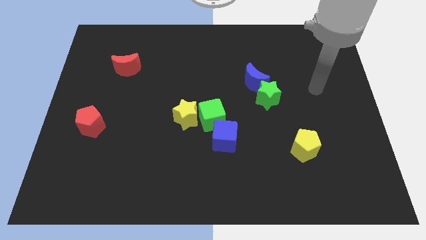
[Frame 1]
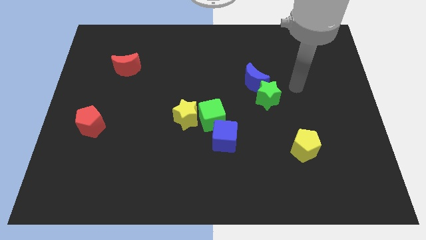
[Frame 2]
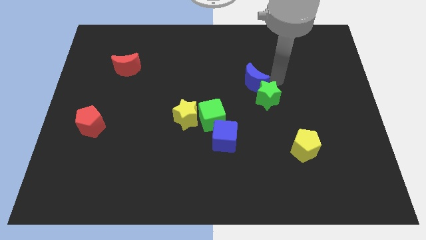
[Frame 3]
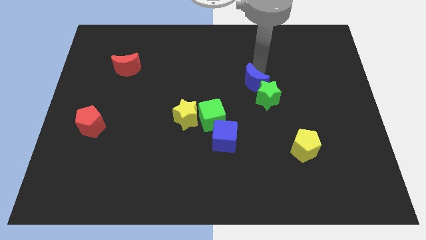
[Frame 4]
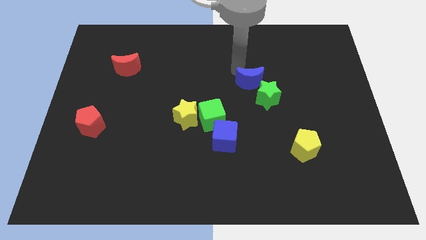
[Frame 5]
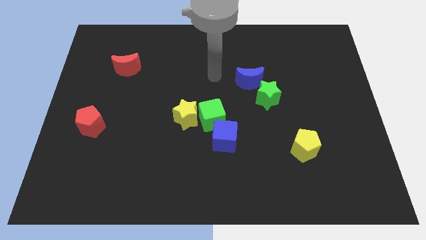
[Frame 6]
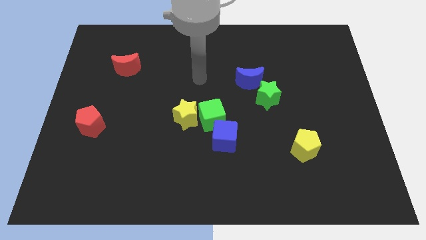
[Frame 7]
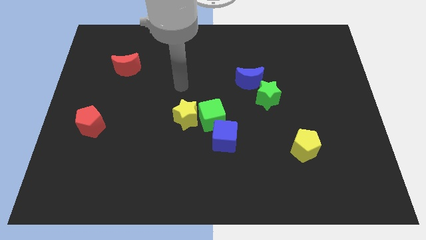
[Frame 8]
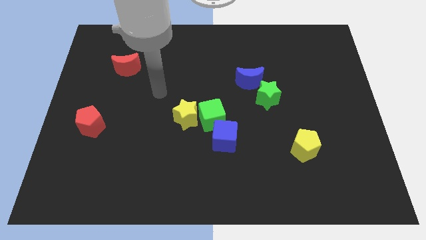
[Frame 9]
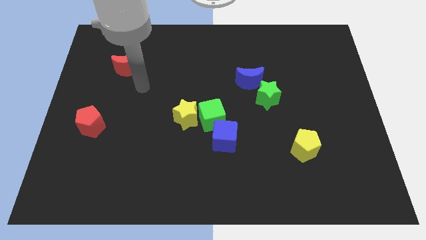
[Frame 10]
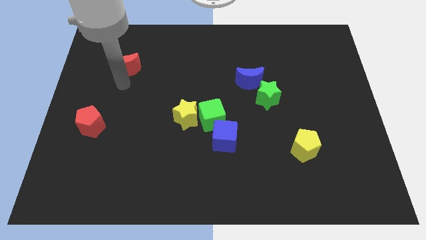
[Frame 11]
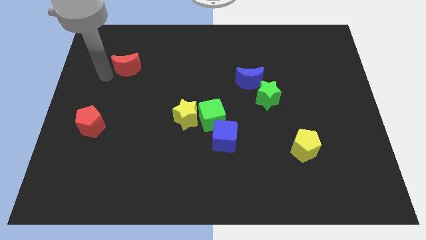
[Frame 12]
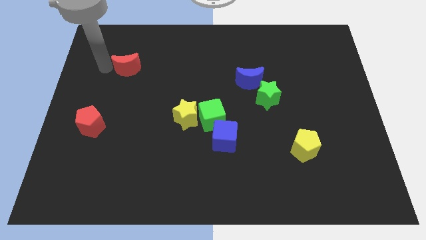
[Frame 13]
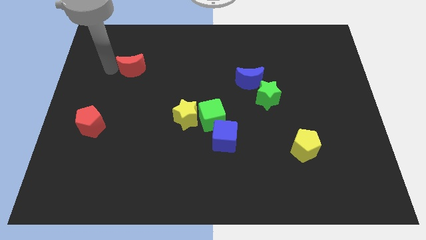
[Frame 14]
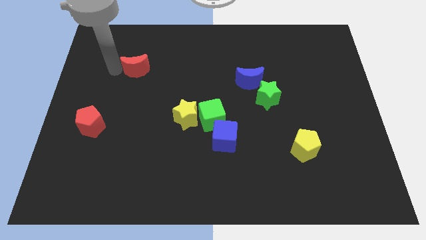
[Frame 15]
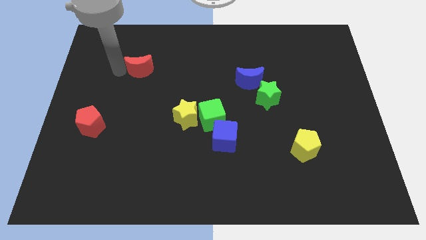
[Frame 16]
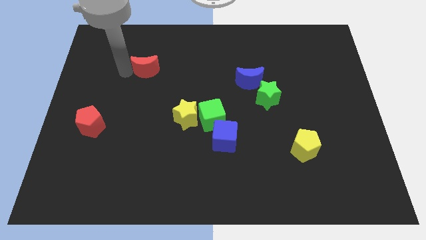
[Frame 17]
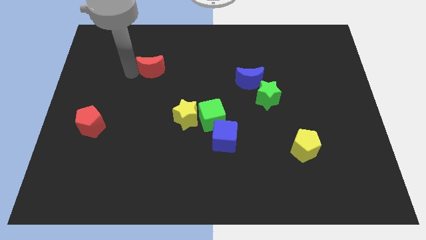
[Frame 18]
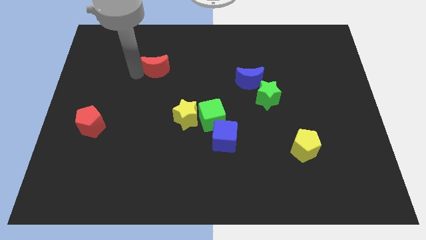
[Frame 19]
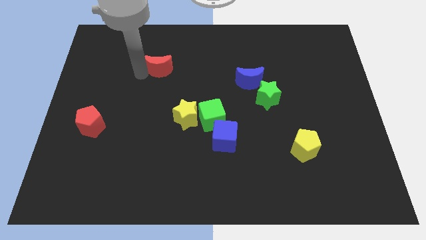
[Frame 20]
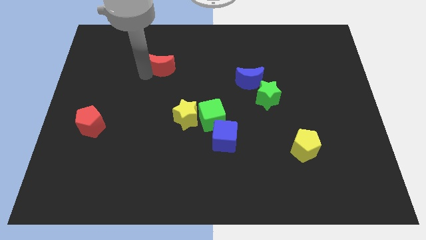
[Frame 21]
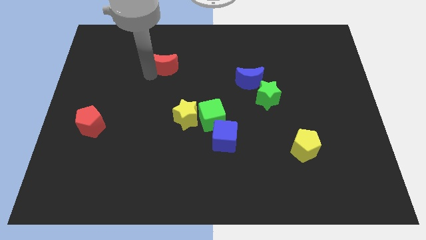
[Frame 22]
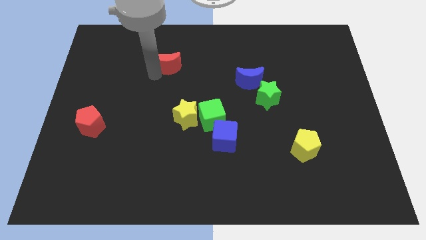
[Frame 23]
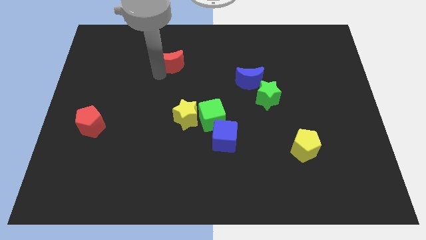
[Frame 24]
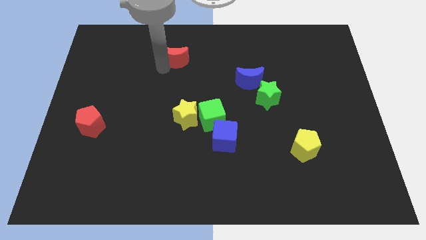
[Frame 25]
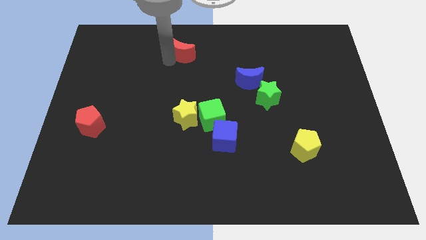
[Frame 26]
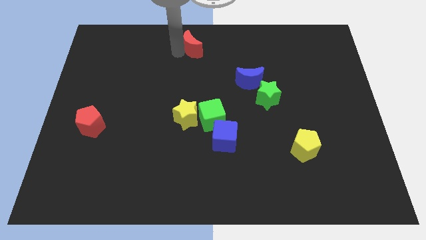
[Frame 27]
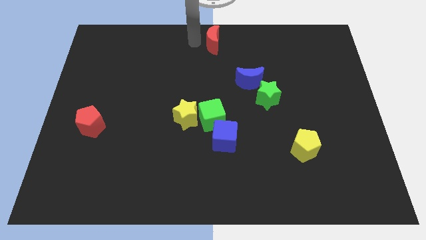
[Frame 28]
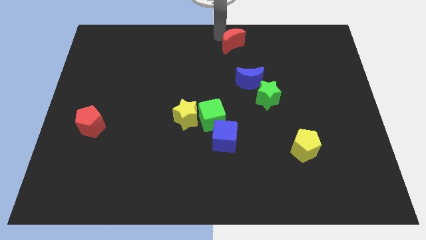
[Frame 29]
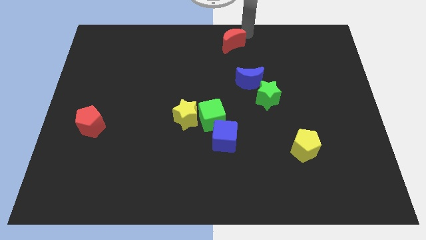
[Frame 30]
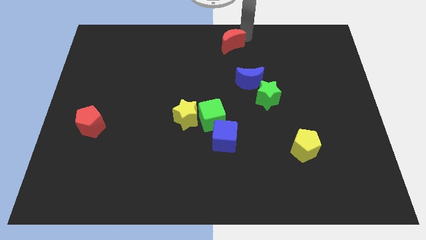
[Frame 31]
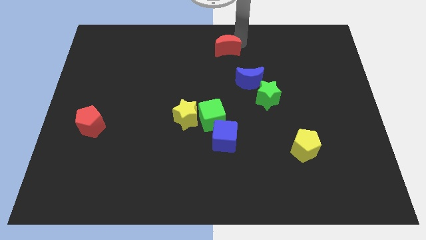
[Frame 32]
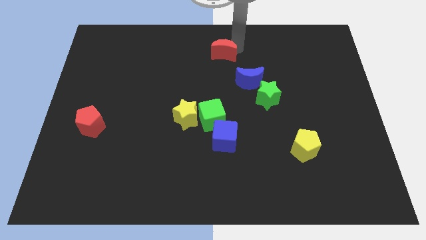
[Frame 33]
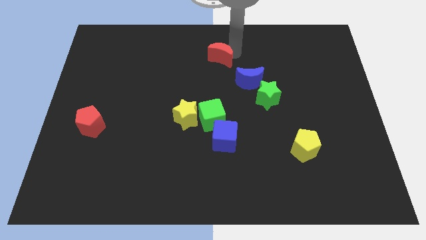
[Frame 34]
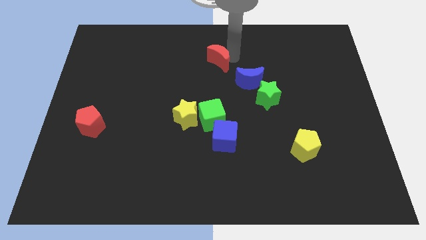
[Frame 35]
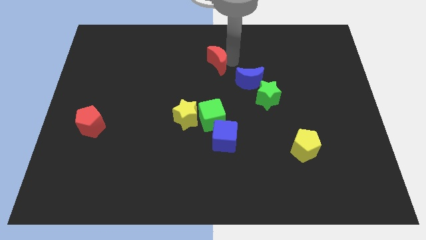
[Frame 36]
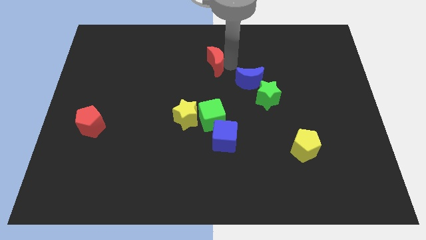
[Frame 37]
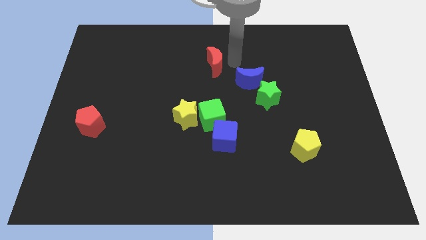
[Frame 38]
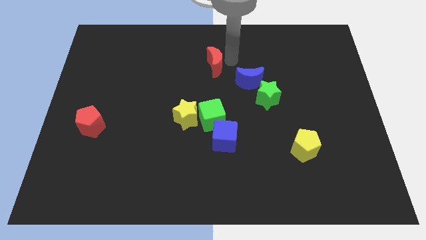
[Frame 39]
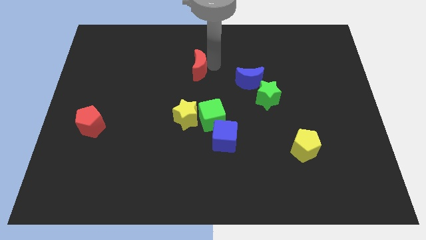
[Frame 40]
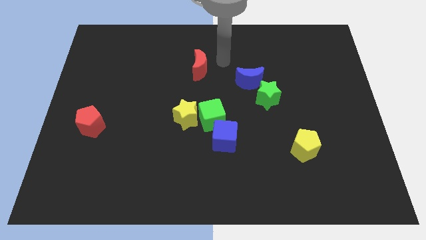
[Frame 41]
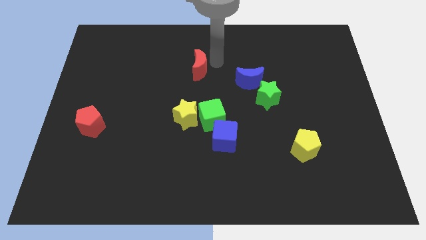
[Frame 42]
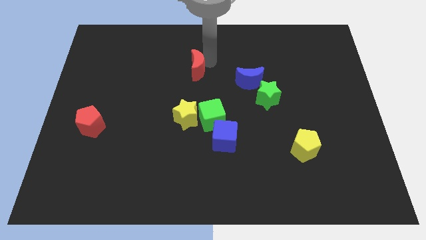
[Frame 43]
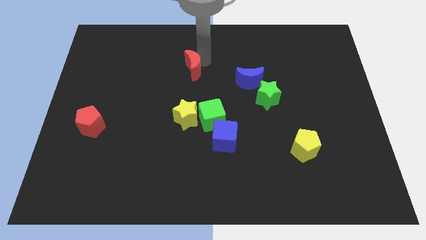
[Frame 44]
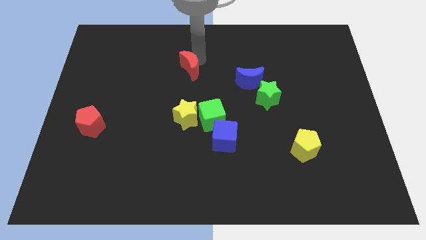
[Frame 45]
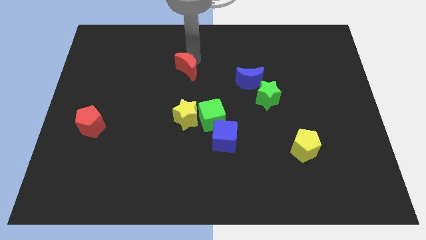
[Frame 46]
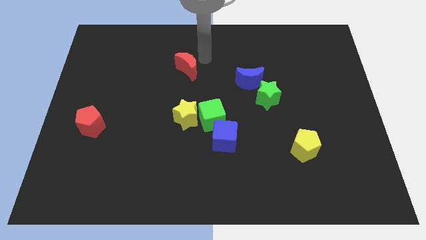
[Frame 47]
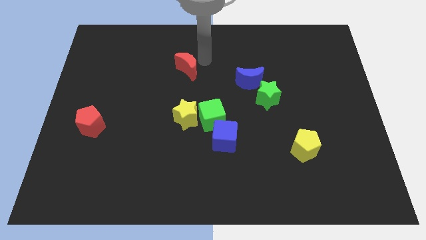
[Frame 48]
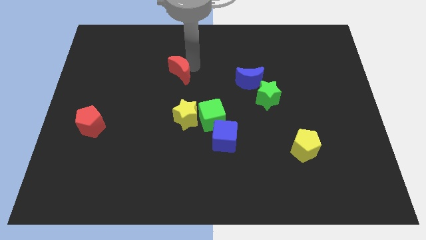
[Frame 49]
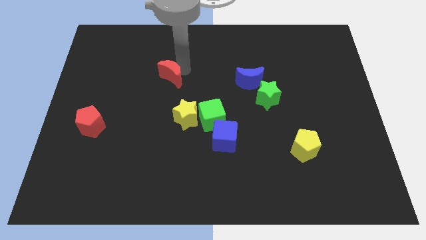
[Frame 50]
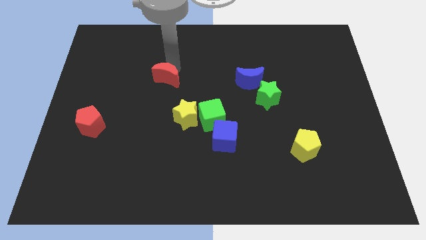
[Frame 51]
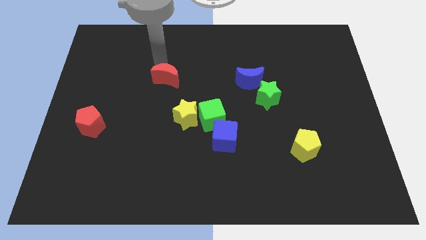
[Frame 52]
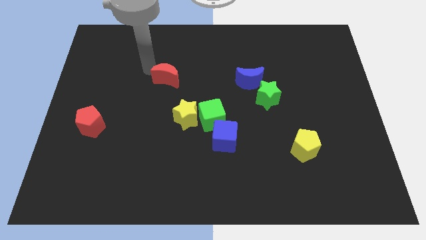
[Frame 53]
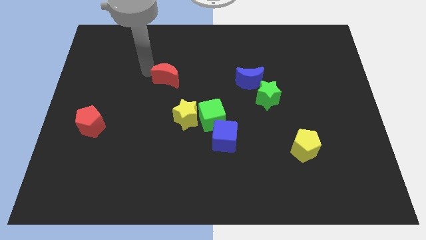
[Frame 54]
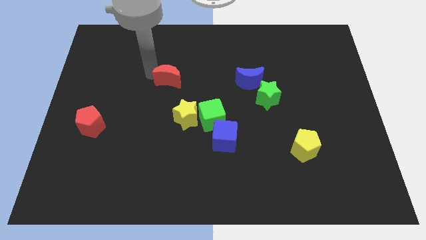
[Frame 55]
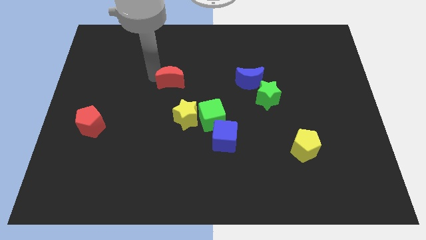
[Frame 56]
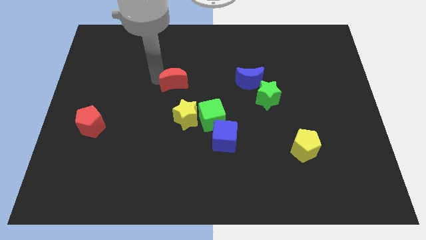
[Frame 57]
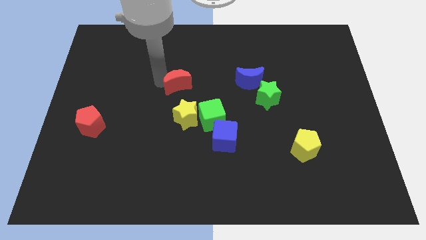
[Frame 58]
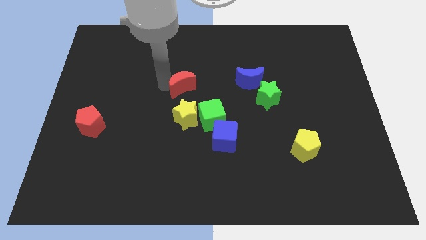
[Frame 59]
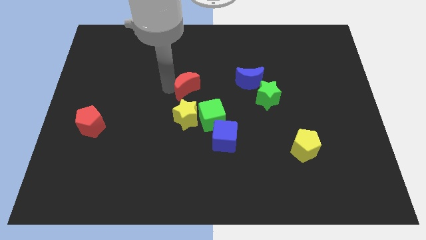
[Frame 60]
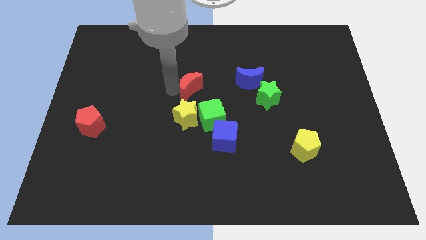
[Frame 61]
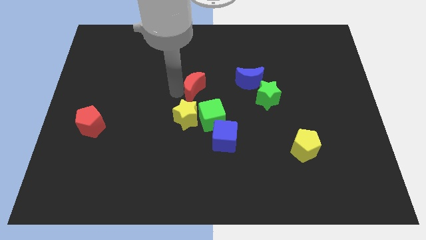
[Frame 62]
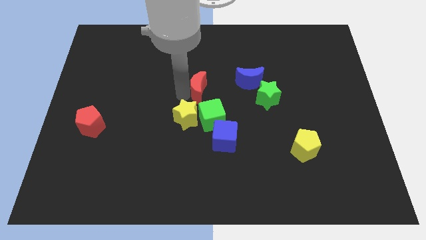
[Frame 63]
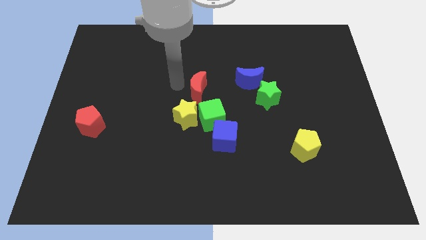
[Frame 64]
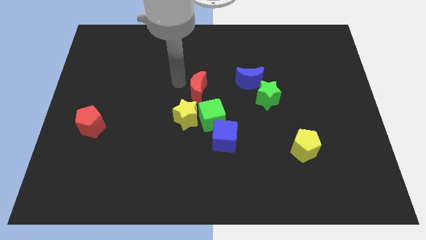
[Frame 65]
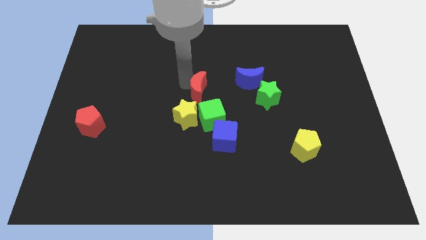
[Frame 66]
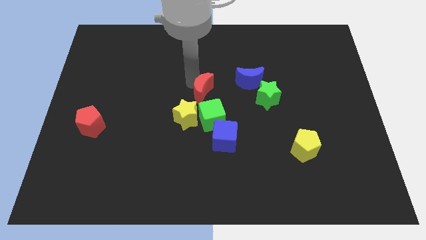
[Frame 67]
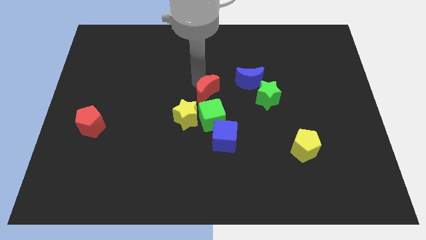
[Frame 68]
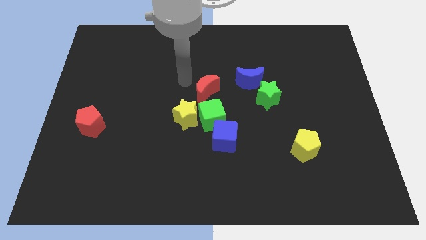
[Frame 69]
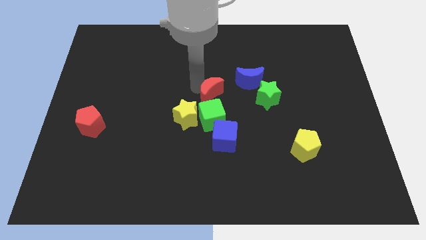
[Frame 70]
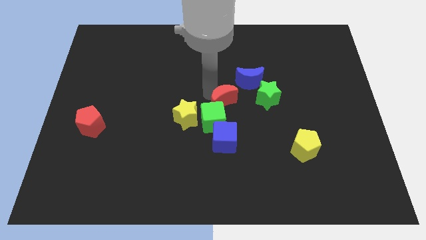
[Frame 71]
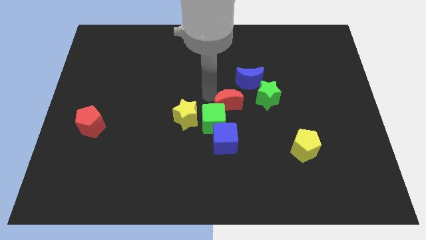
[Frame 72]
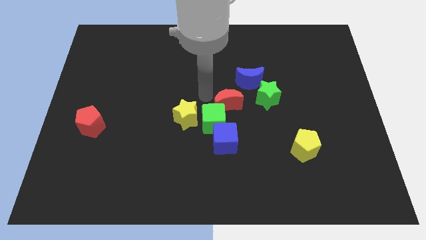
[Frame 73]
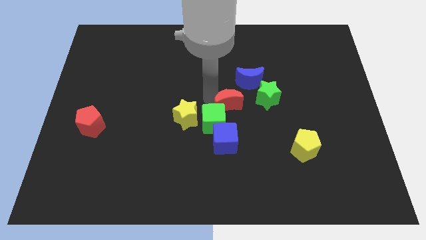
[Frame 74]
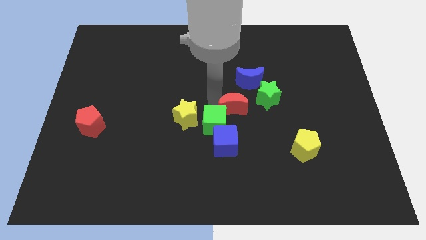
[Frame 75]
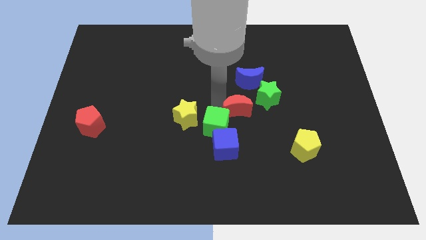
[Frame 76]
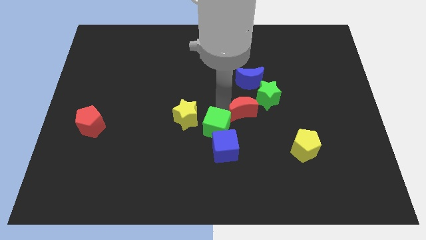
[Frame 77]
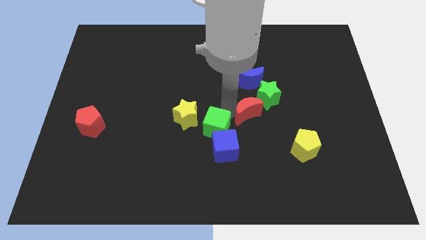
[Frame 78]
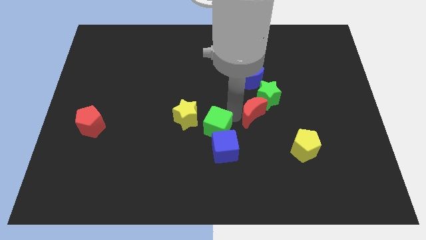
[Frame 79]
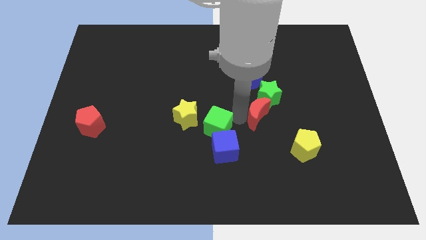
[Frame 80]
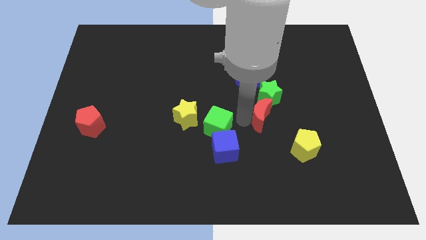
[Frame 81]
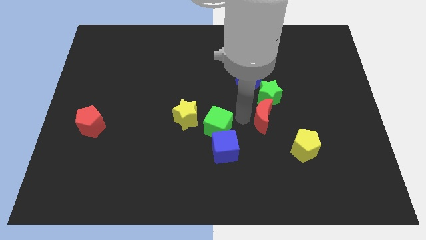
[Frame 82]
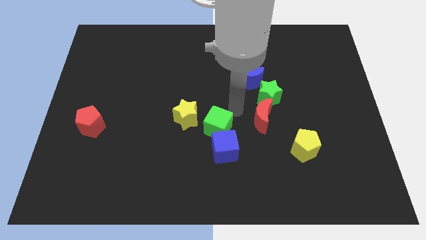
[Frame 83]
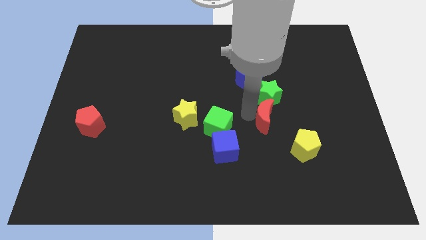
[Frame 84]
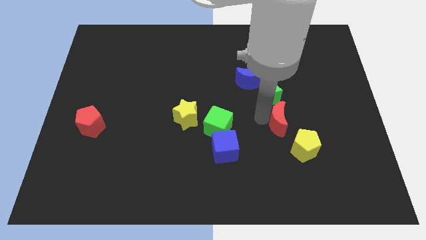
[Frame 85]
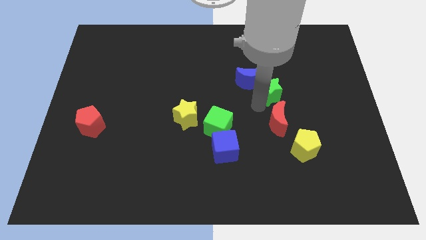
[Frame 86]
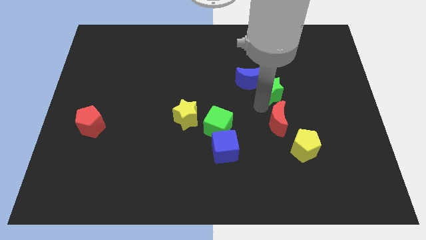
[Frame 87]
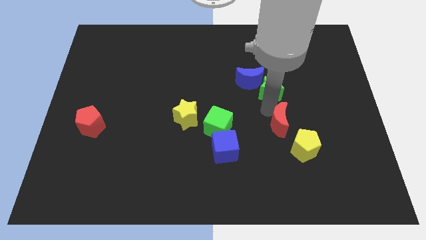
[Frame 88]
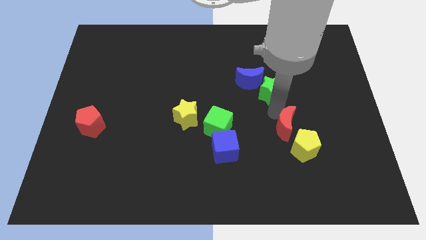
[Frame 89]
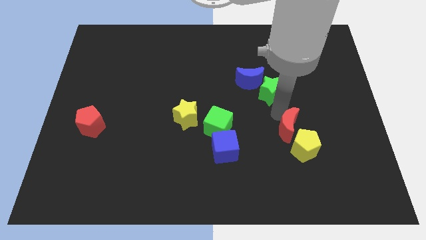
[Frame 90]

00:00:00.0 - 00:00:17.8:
put the red moon towards the yellow pentagon
